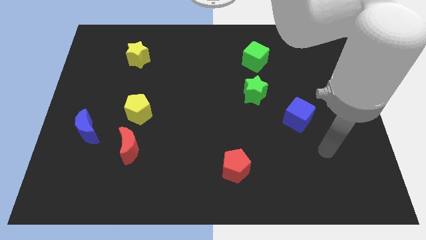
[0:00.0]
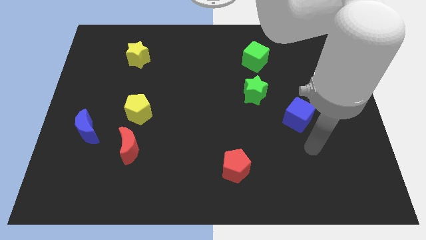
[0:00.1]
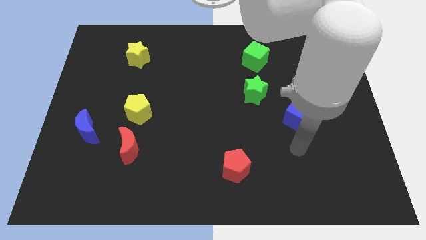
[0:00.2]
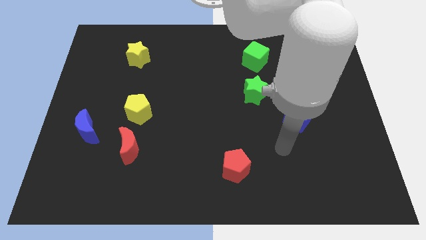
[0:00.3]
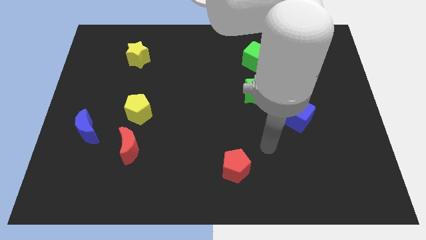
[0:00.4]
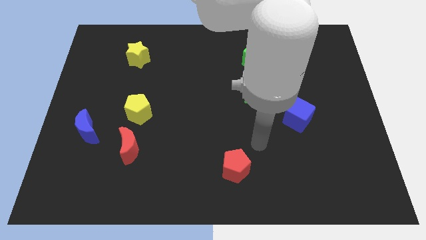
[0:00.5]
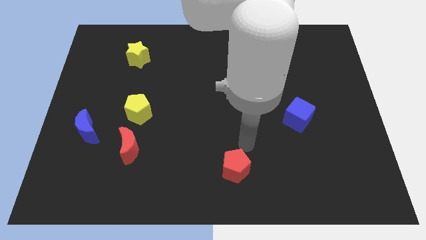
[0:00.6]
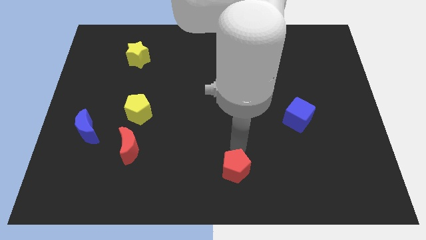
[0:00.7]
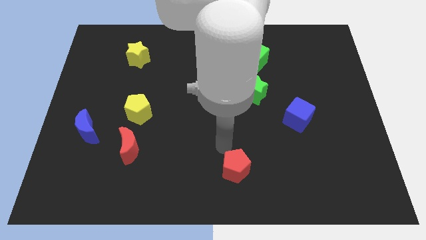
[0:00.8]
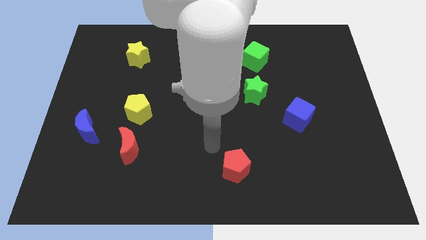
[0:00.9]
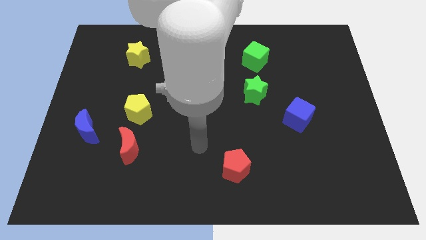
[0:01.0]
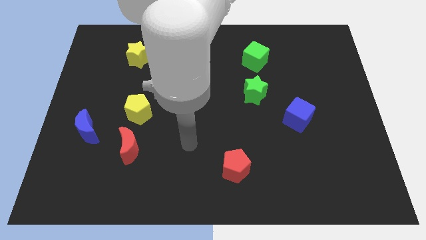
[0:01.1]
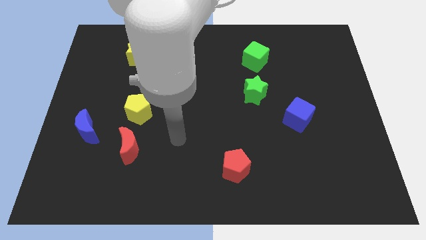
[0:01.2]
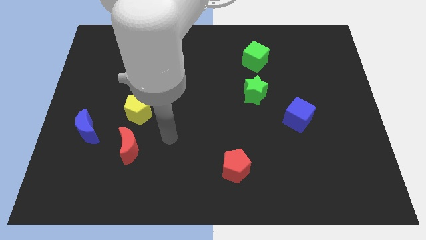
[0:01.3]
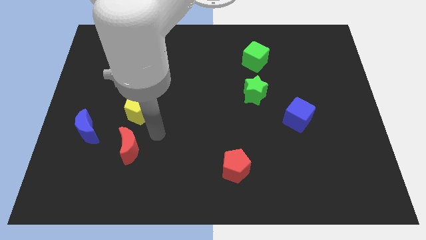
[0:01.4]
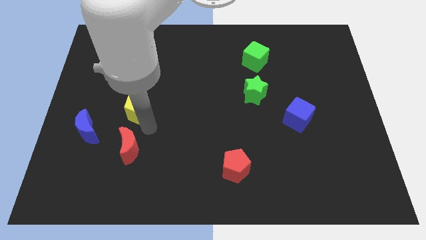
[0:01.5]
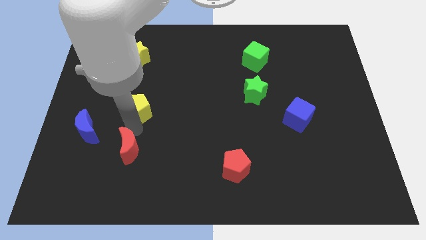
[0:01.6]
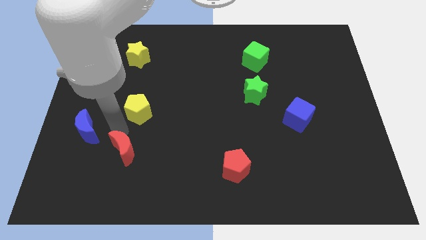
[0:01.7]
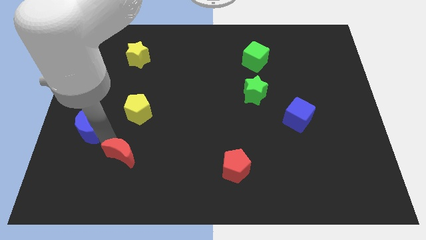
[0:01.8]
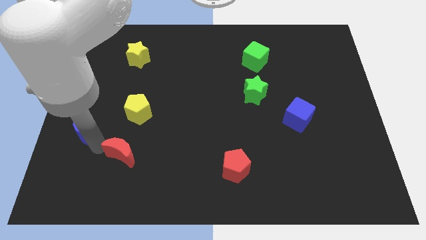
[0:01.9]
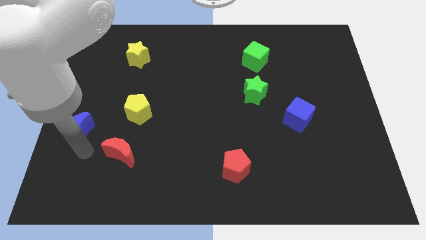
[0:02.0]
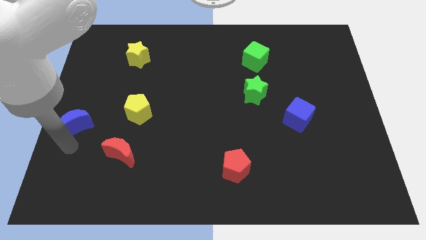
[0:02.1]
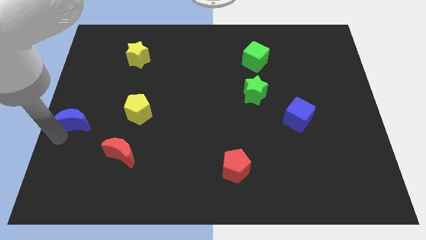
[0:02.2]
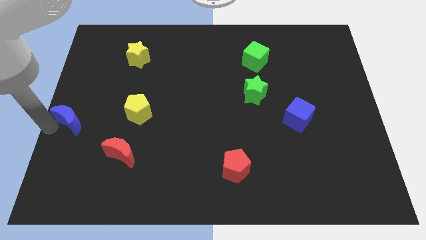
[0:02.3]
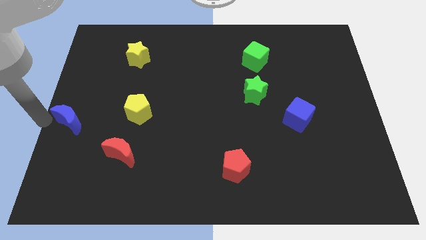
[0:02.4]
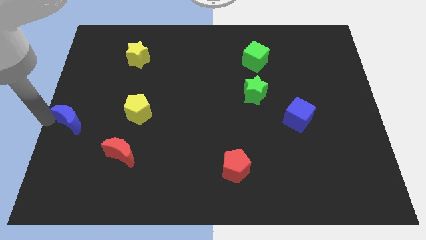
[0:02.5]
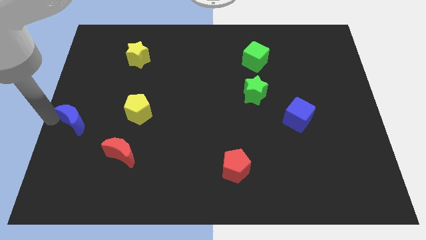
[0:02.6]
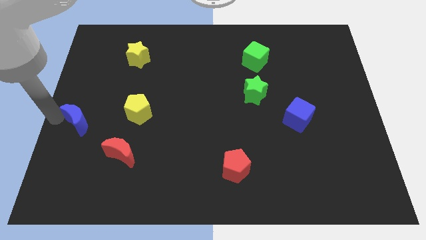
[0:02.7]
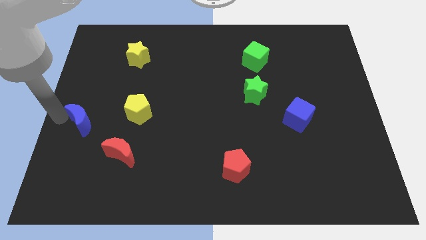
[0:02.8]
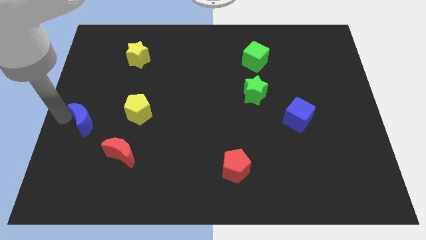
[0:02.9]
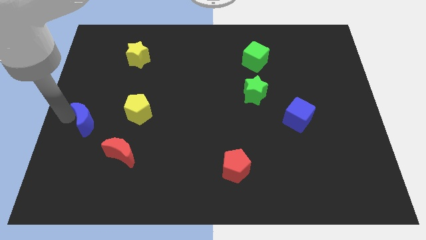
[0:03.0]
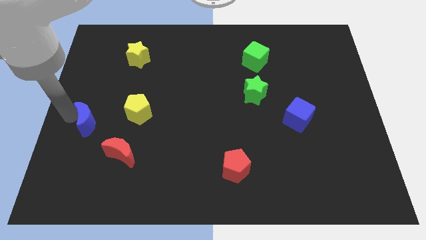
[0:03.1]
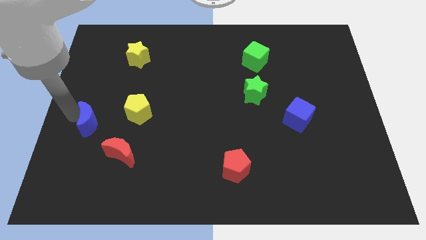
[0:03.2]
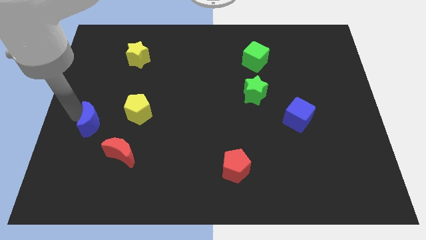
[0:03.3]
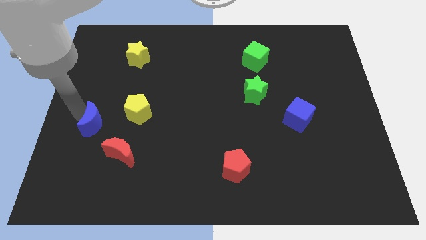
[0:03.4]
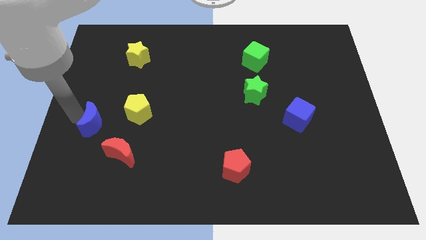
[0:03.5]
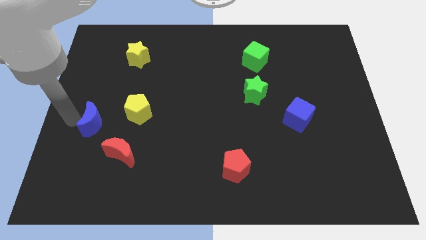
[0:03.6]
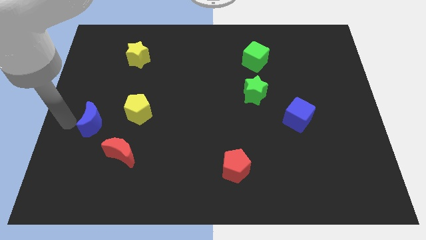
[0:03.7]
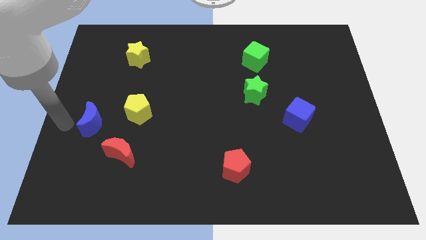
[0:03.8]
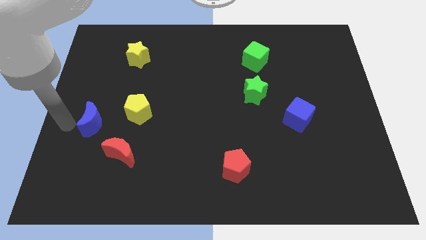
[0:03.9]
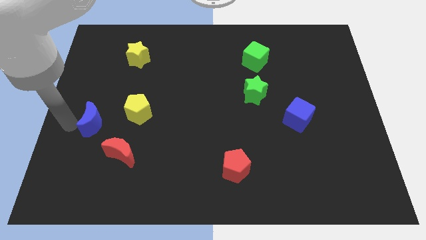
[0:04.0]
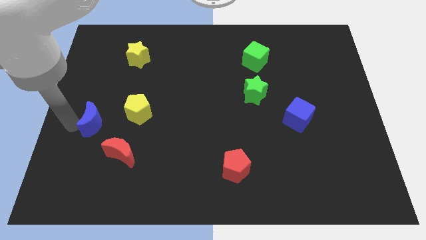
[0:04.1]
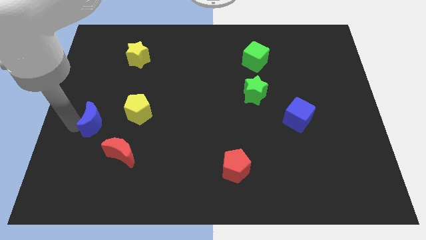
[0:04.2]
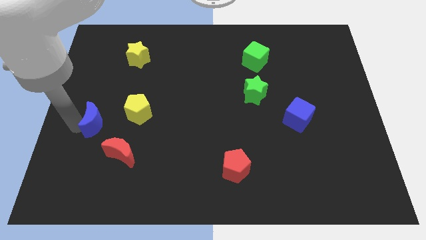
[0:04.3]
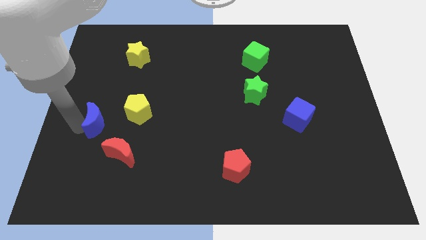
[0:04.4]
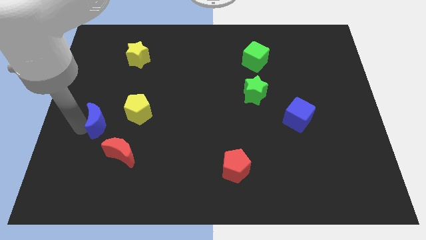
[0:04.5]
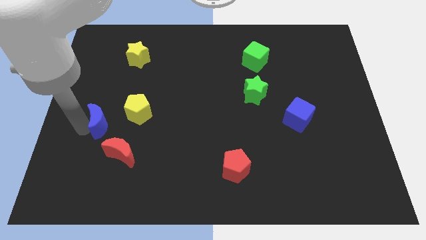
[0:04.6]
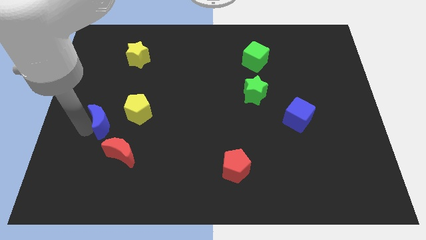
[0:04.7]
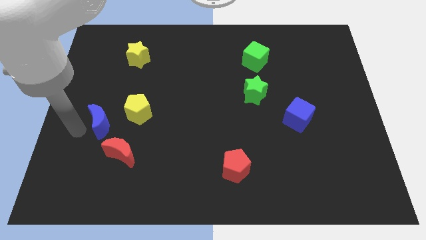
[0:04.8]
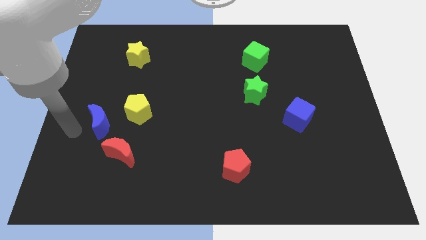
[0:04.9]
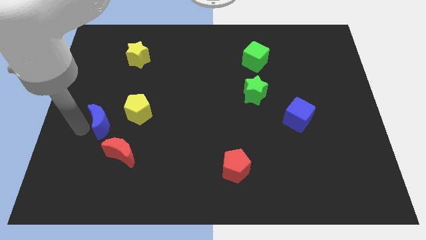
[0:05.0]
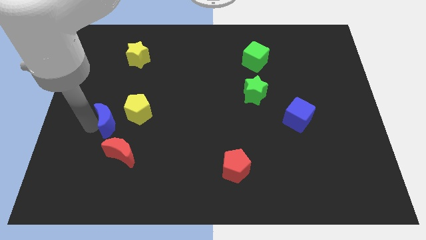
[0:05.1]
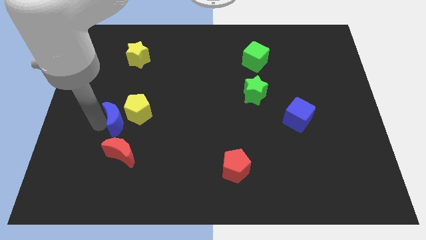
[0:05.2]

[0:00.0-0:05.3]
put the blue moon next to the yellow pentagon

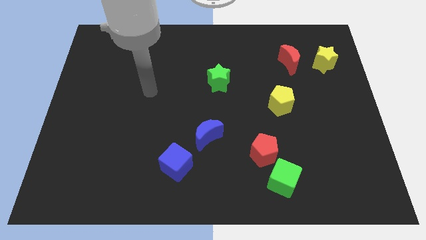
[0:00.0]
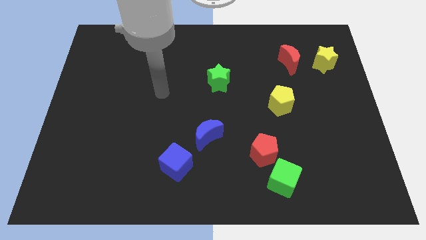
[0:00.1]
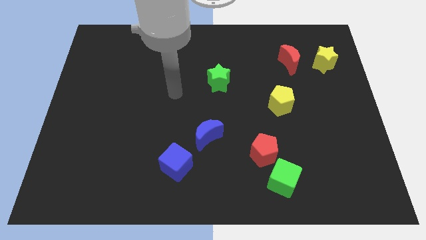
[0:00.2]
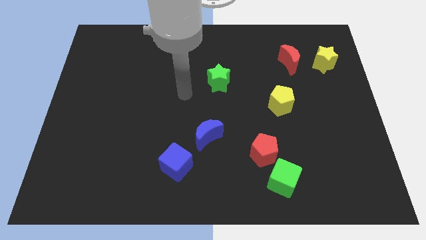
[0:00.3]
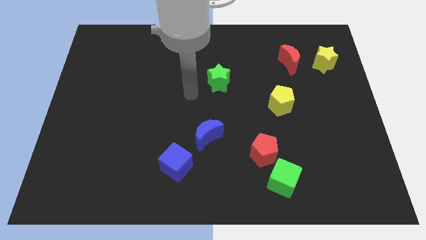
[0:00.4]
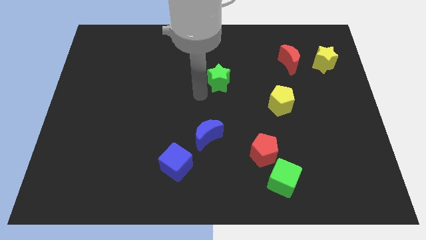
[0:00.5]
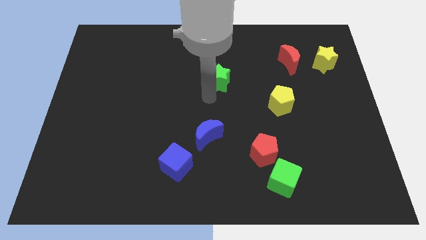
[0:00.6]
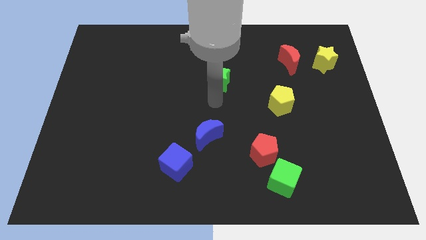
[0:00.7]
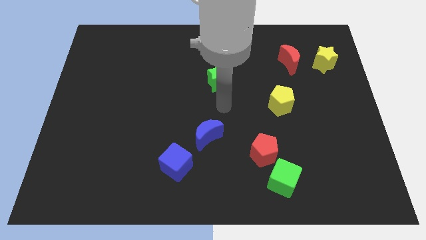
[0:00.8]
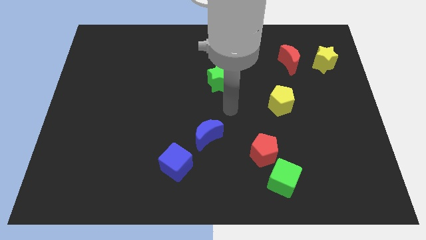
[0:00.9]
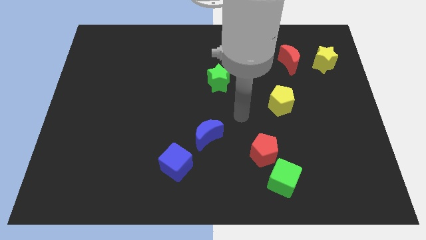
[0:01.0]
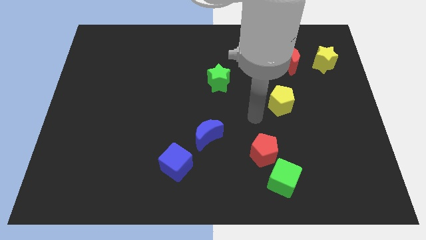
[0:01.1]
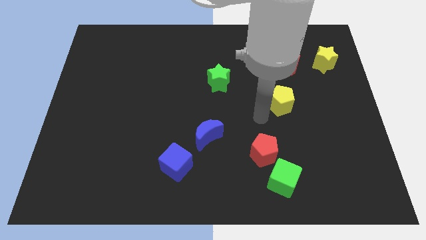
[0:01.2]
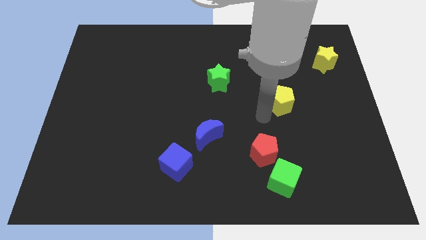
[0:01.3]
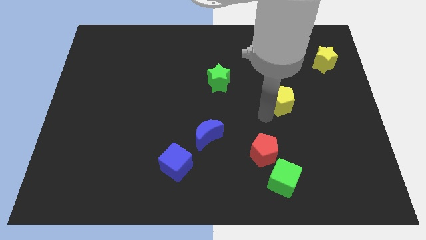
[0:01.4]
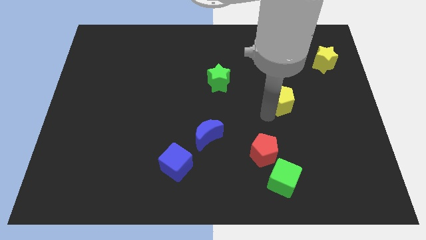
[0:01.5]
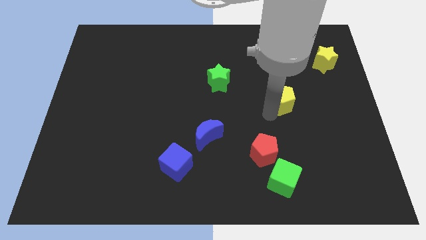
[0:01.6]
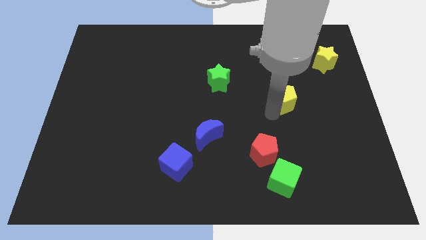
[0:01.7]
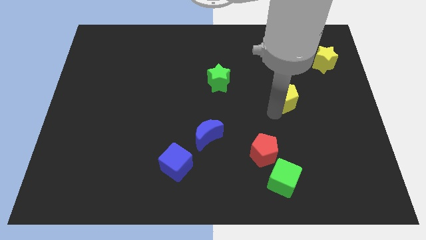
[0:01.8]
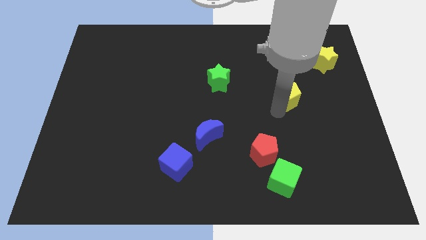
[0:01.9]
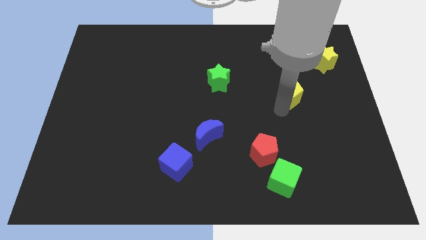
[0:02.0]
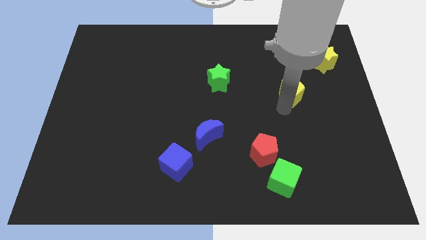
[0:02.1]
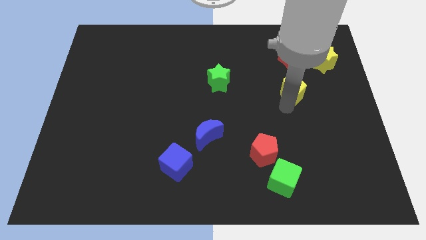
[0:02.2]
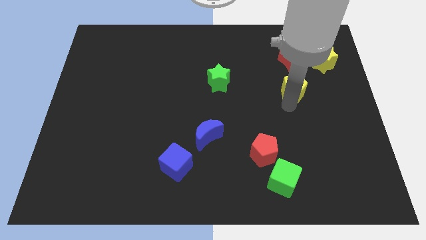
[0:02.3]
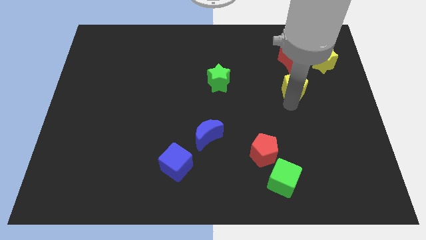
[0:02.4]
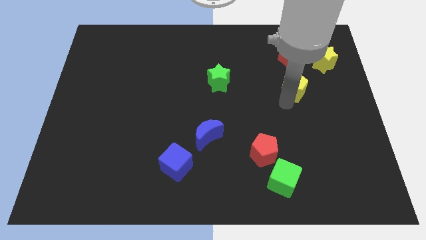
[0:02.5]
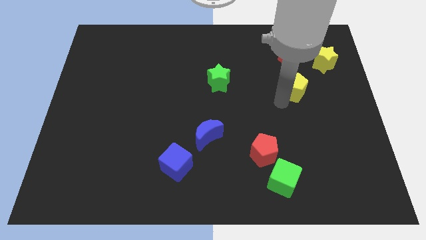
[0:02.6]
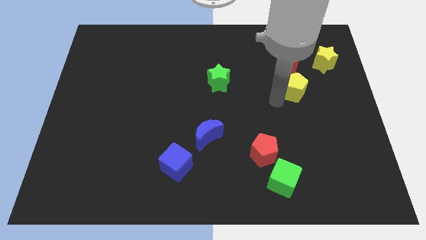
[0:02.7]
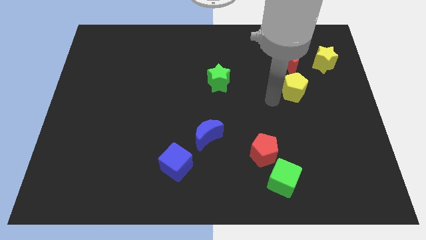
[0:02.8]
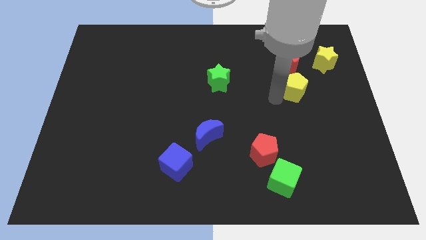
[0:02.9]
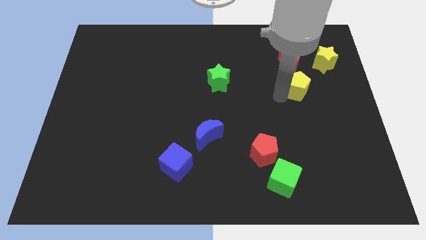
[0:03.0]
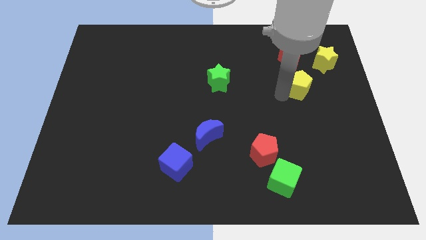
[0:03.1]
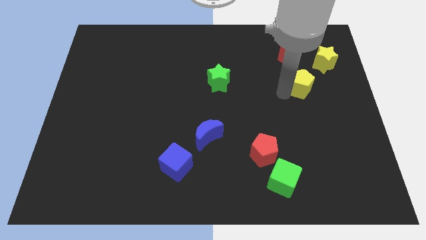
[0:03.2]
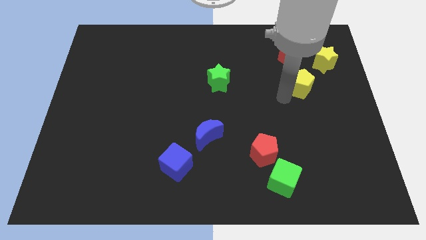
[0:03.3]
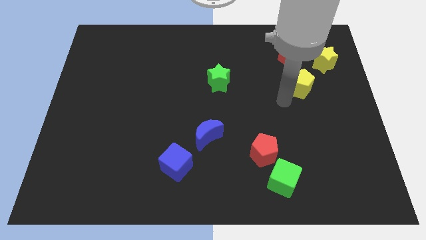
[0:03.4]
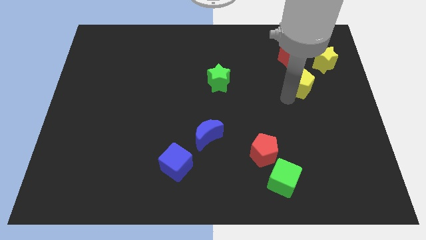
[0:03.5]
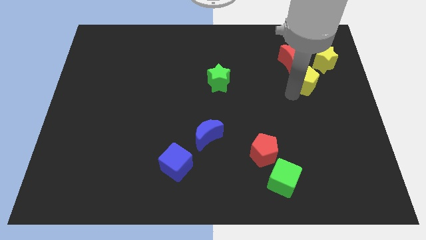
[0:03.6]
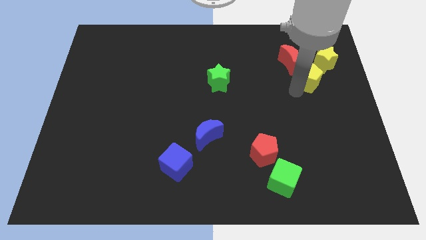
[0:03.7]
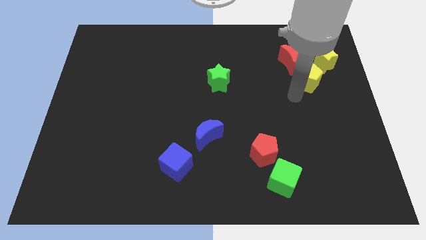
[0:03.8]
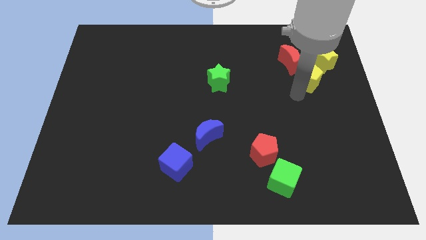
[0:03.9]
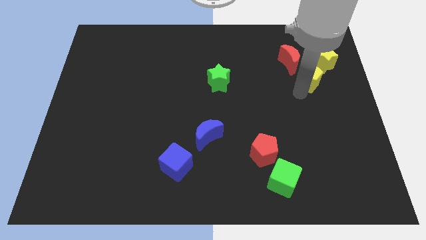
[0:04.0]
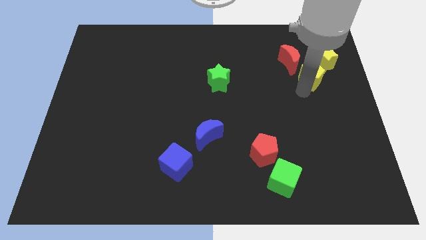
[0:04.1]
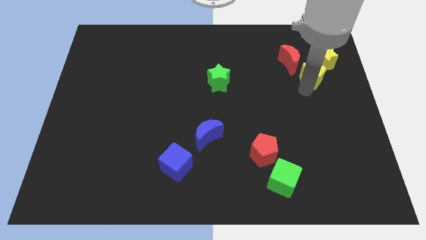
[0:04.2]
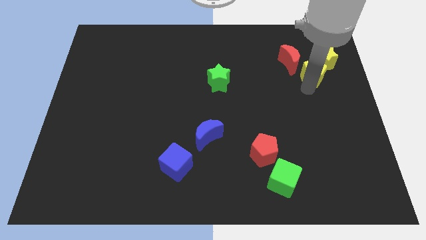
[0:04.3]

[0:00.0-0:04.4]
slide the yellow pentagon to the yellow star
